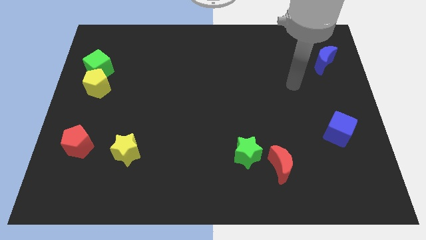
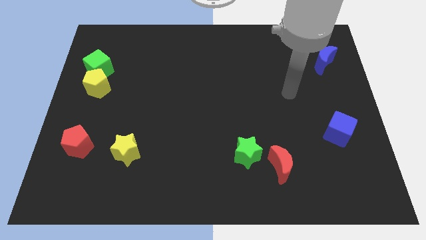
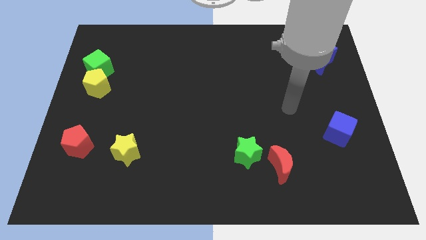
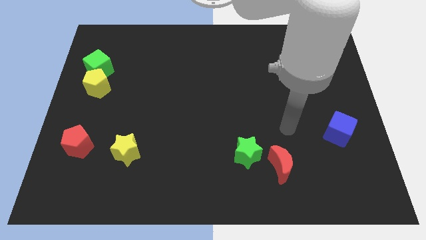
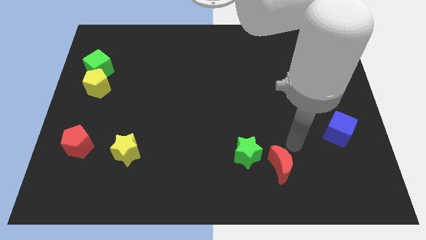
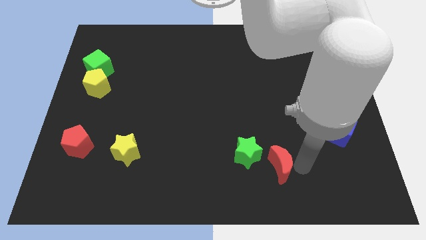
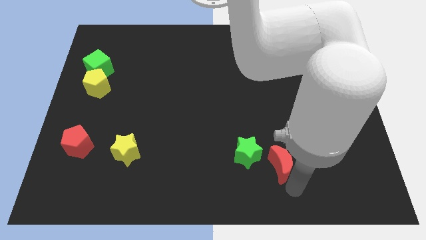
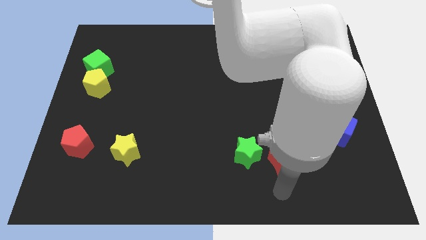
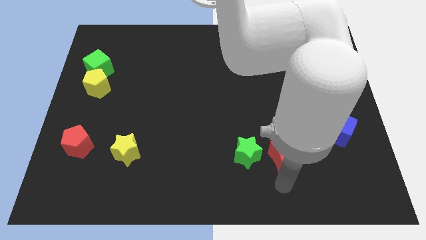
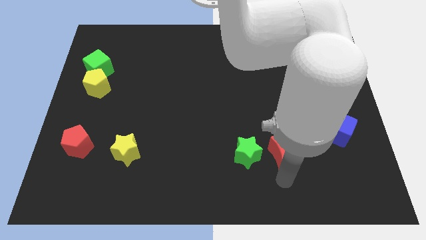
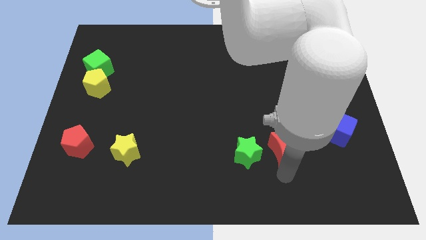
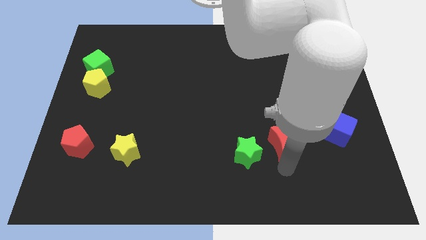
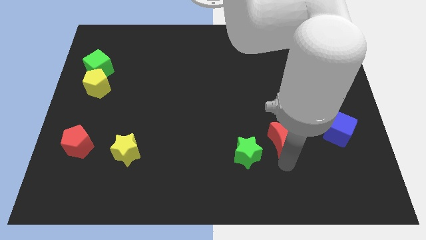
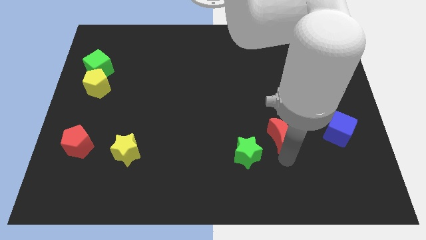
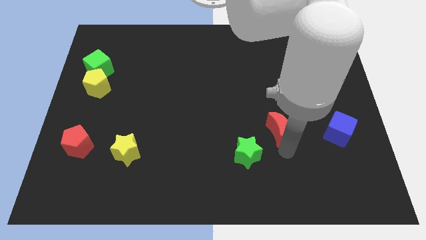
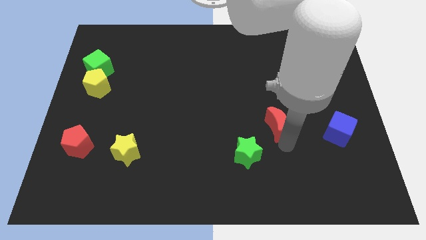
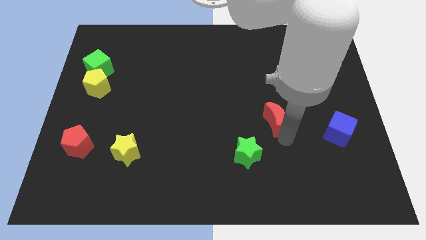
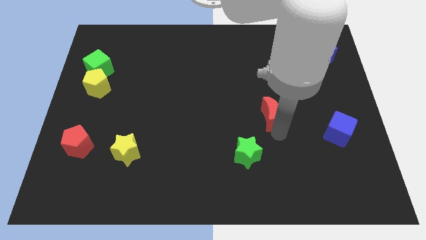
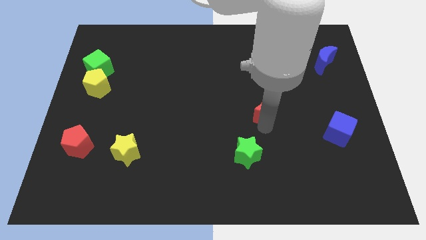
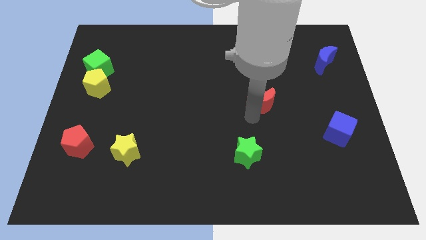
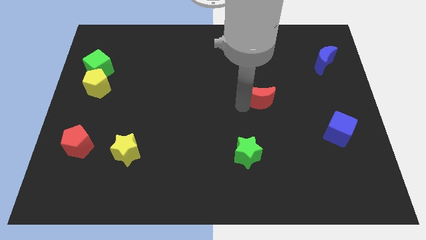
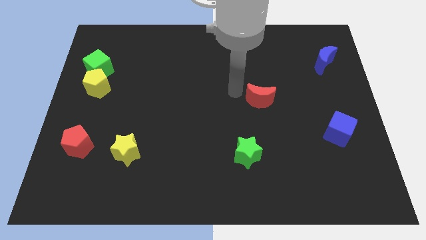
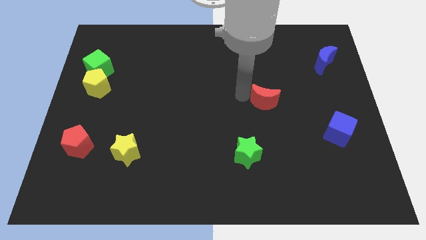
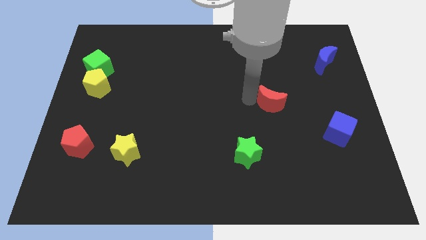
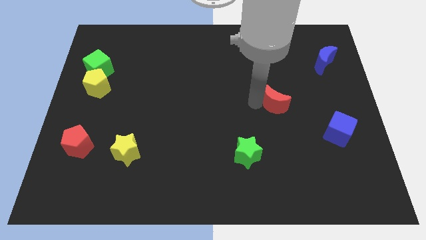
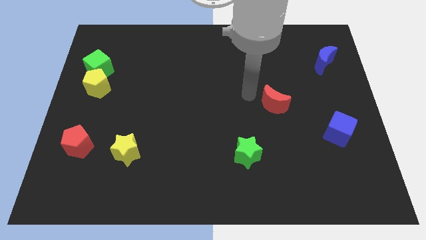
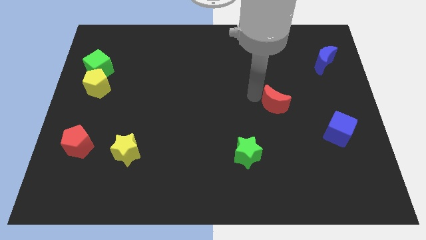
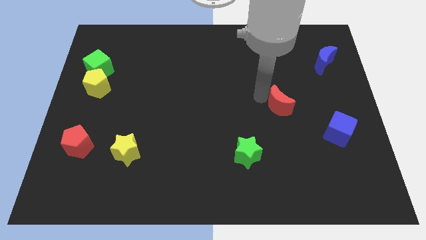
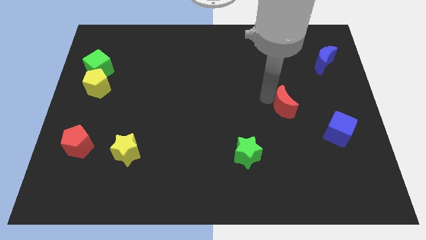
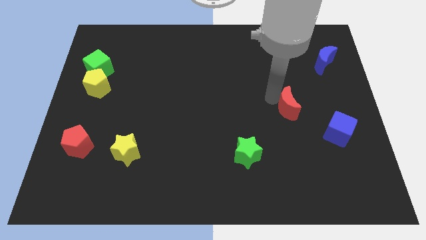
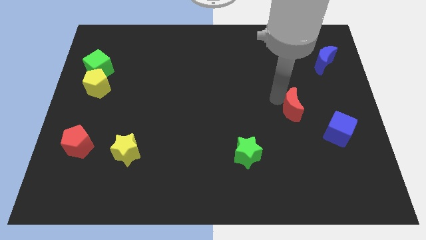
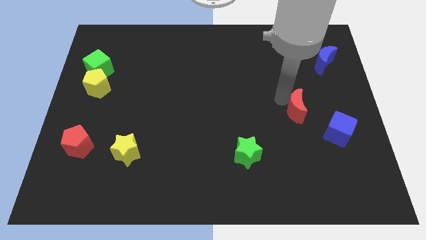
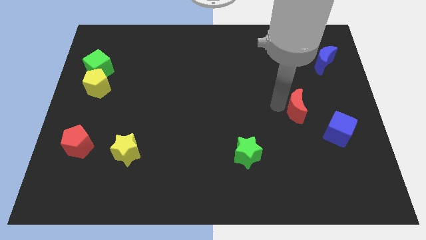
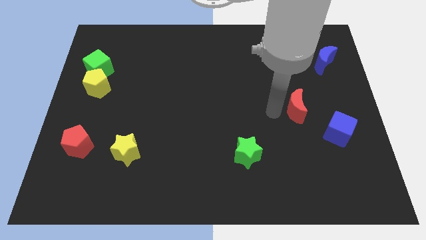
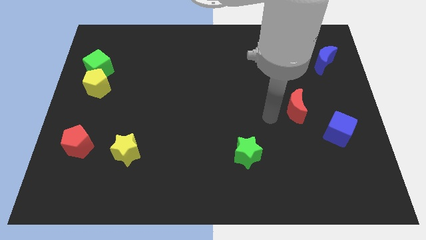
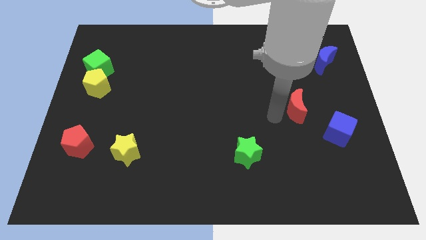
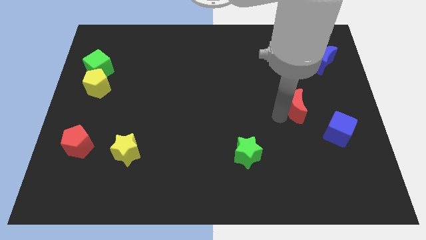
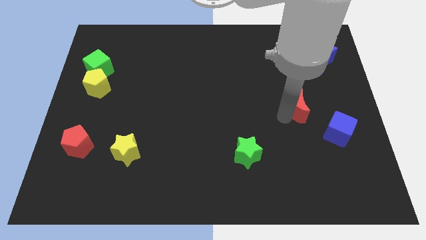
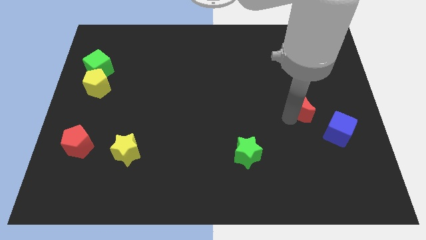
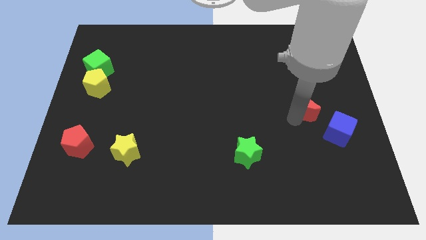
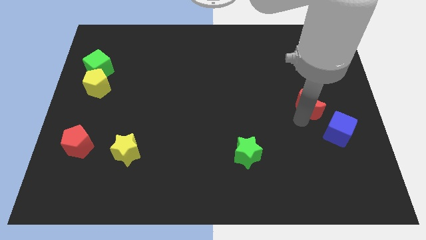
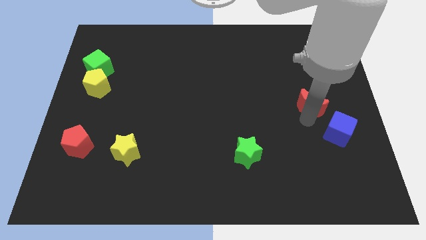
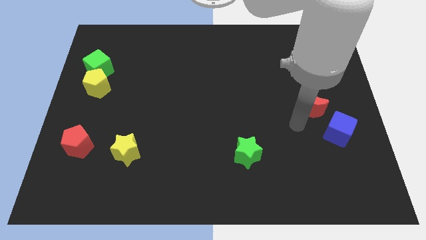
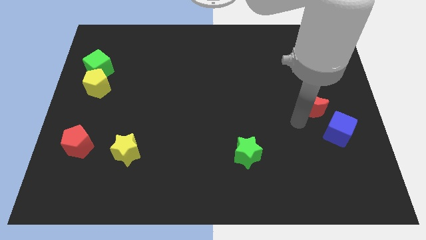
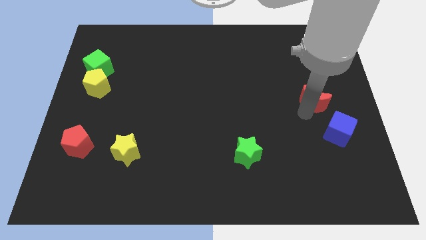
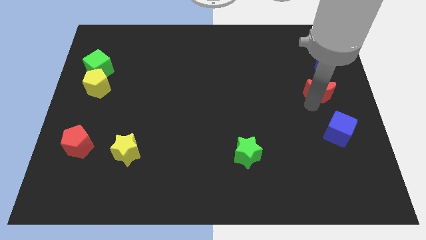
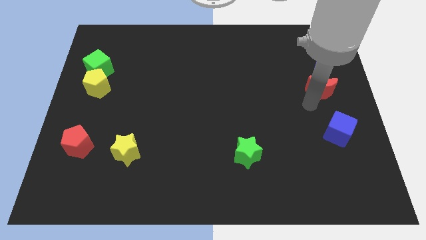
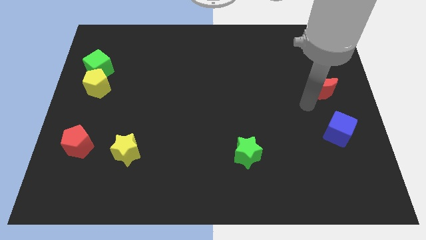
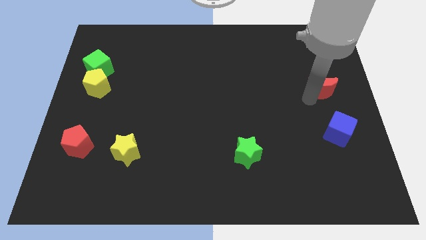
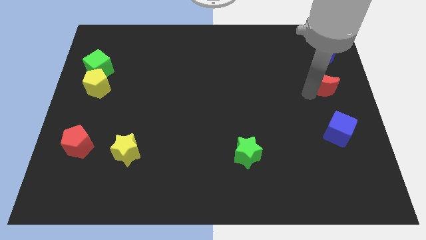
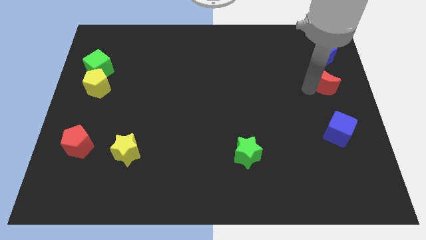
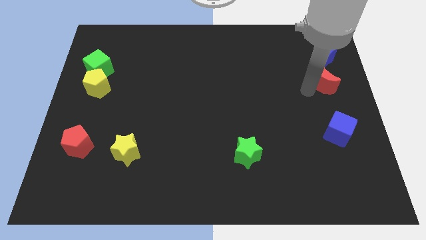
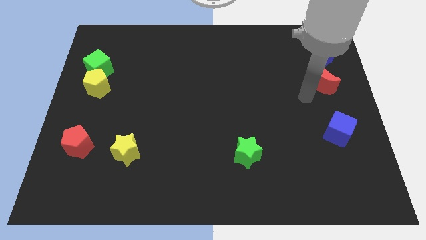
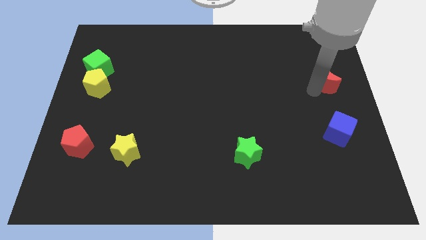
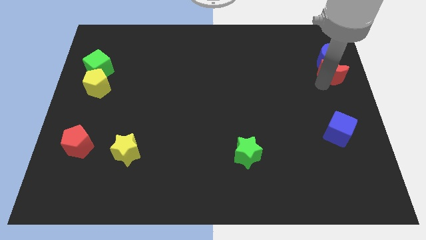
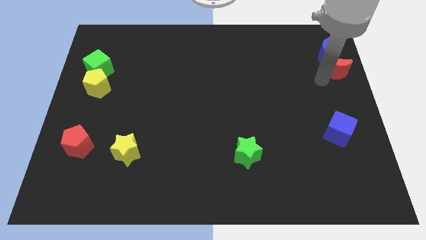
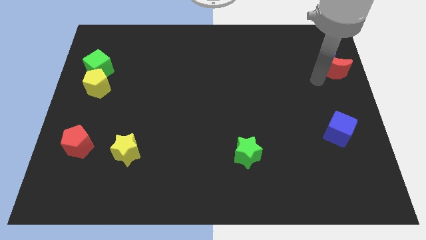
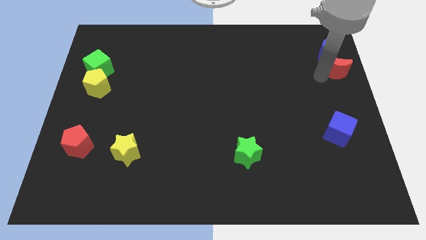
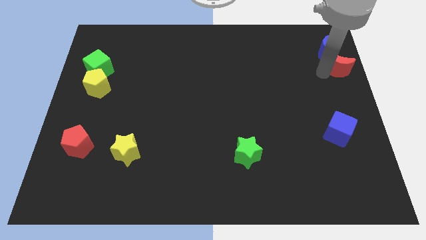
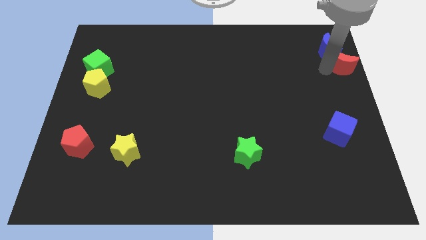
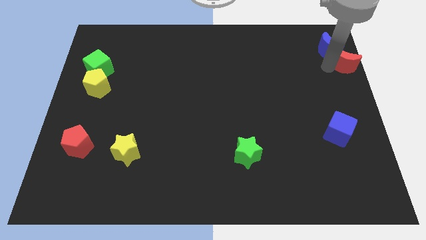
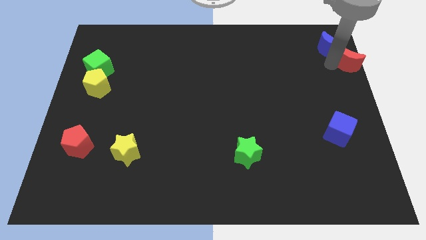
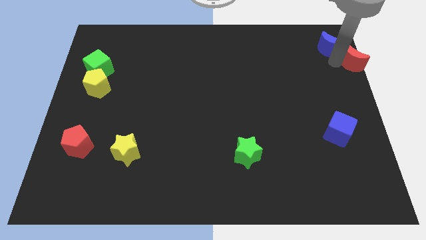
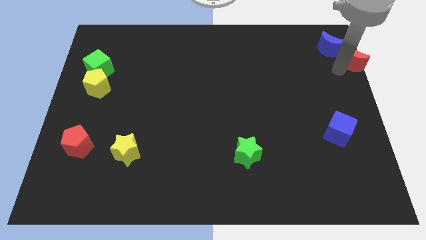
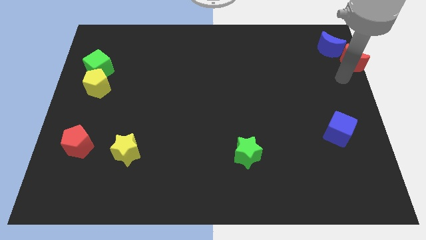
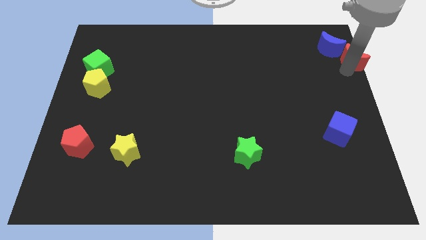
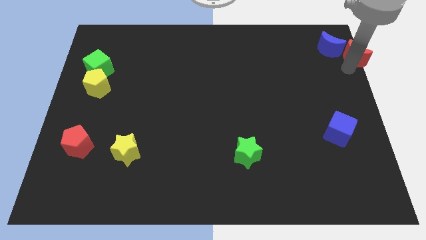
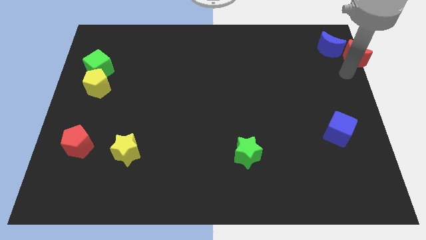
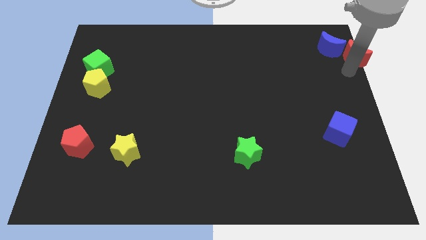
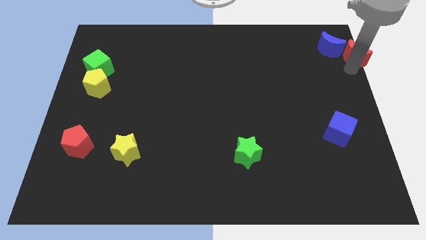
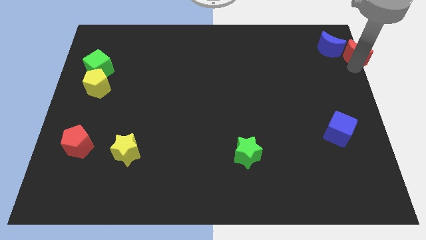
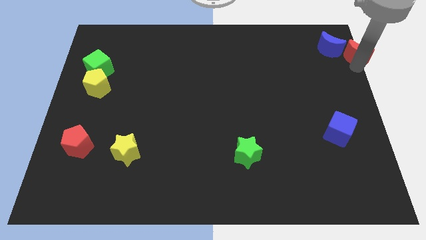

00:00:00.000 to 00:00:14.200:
push the red moon to the top right
